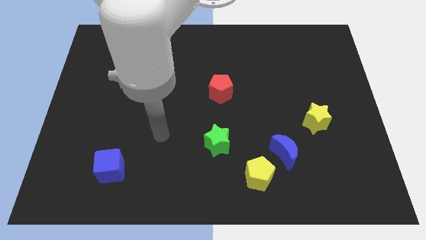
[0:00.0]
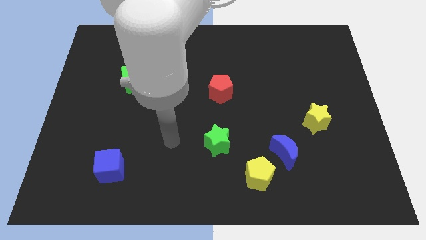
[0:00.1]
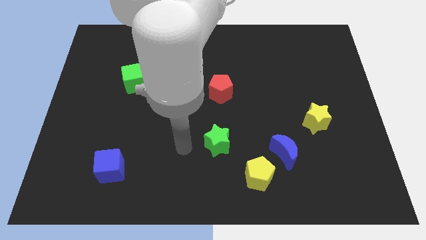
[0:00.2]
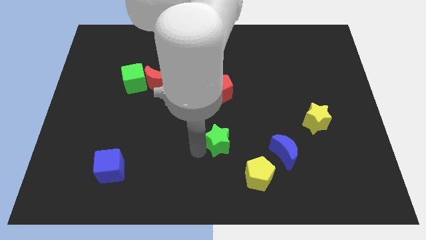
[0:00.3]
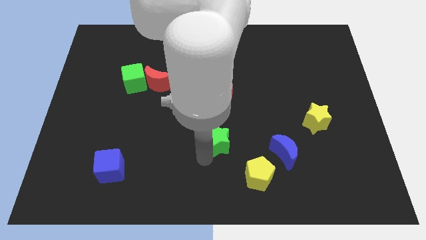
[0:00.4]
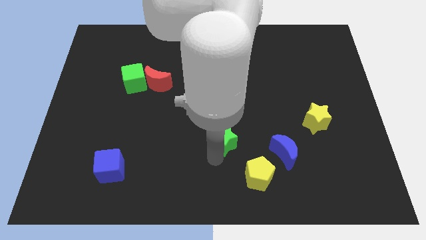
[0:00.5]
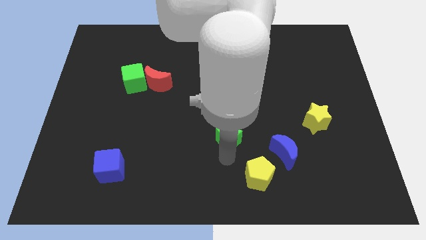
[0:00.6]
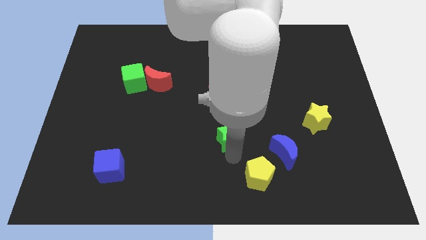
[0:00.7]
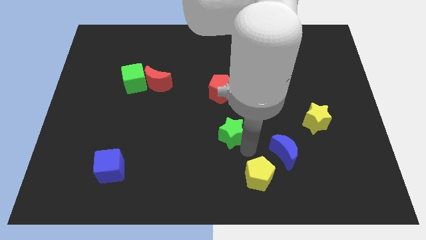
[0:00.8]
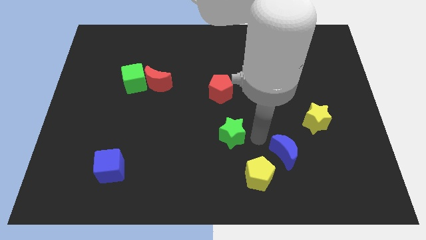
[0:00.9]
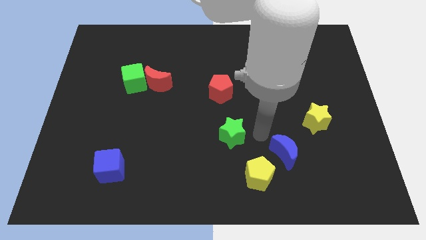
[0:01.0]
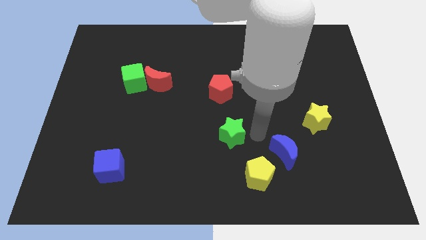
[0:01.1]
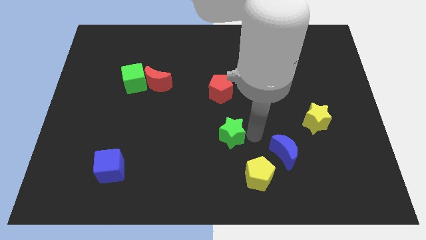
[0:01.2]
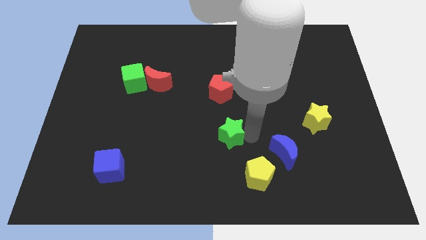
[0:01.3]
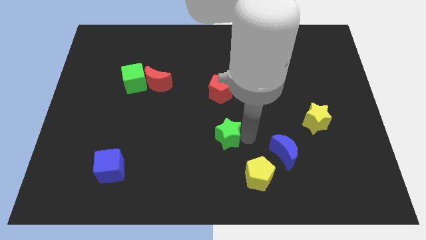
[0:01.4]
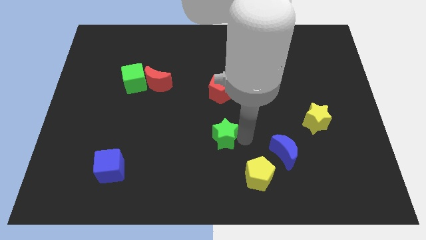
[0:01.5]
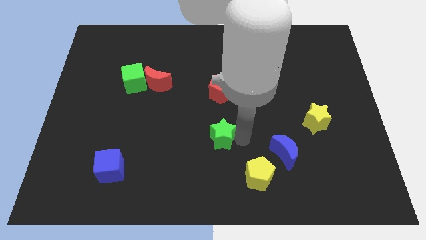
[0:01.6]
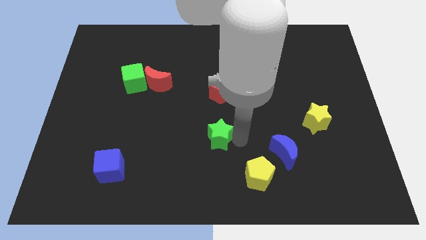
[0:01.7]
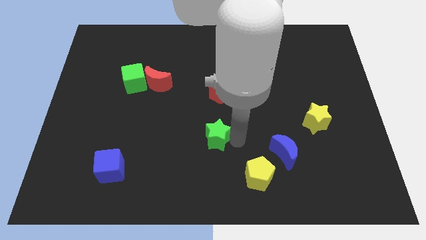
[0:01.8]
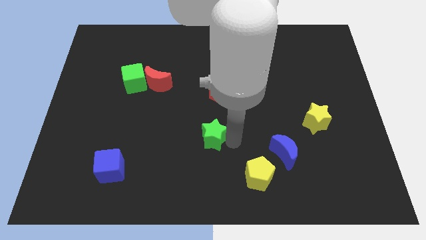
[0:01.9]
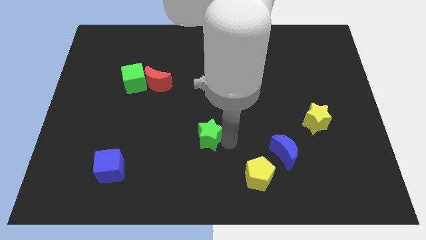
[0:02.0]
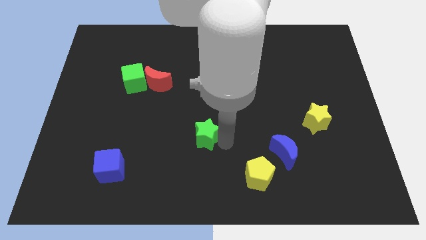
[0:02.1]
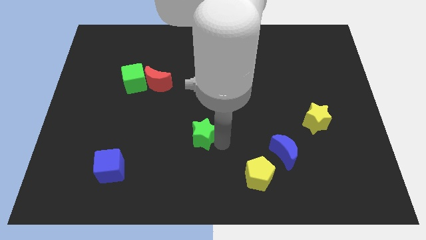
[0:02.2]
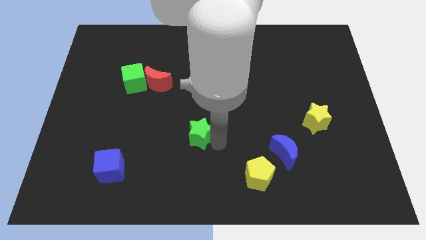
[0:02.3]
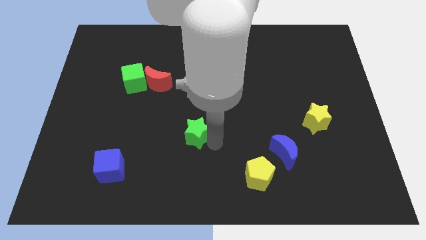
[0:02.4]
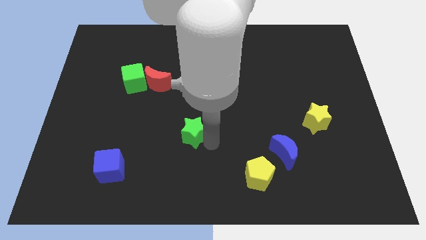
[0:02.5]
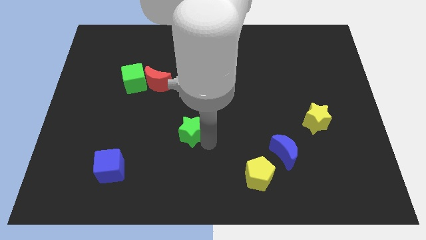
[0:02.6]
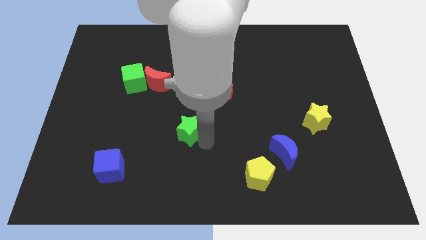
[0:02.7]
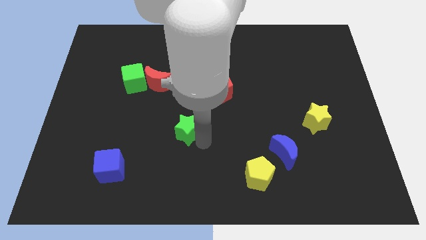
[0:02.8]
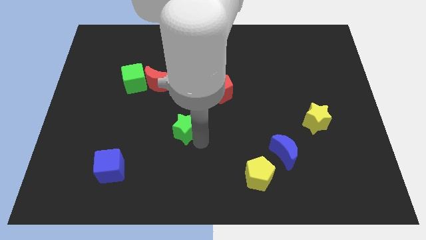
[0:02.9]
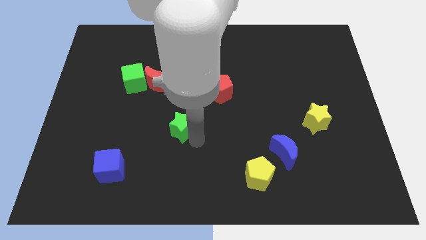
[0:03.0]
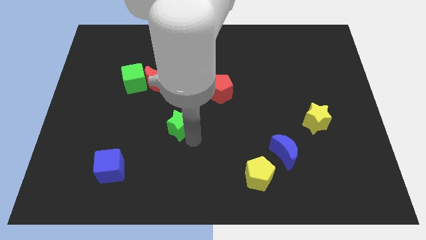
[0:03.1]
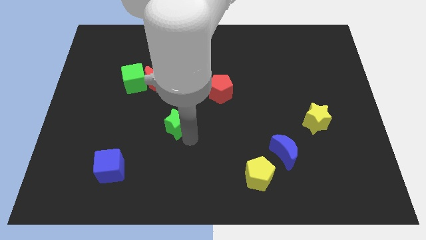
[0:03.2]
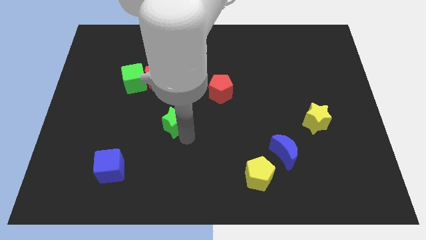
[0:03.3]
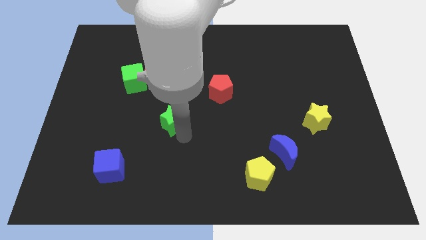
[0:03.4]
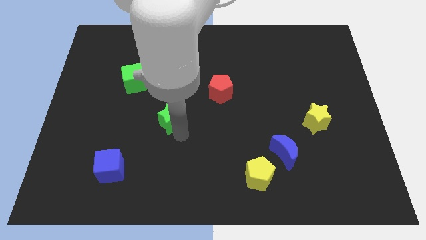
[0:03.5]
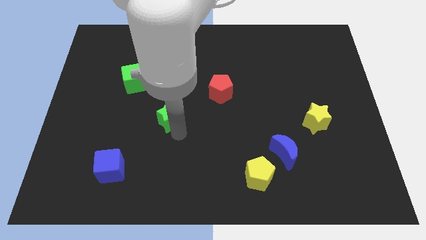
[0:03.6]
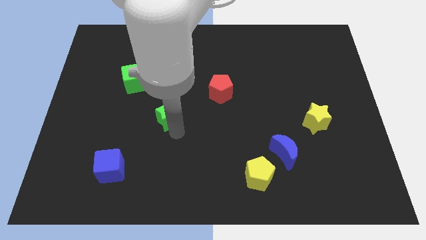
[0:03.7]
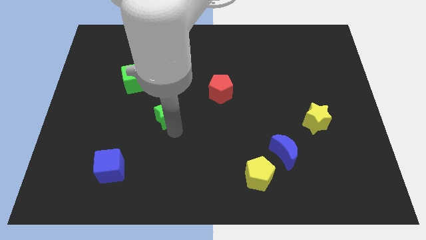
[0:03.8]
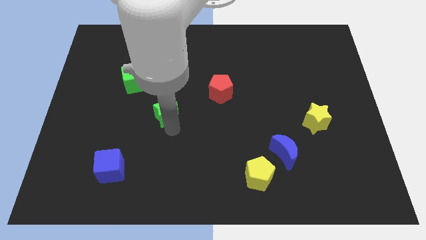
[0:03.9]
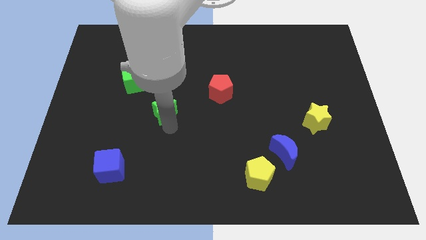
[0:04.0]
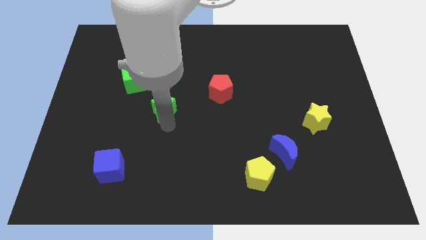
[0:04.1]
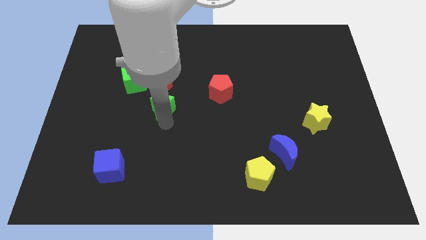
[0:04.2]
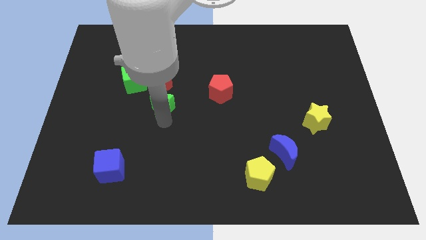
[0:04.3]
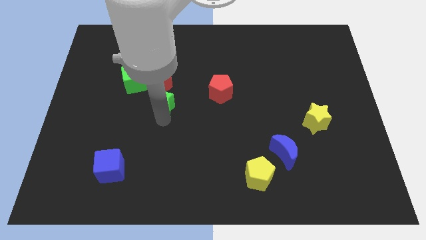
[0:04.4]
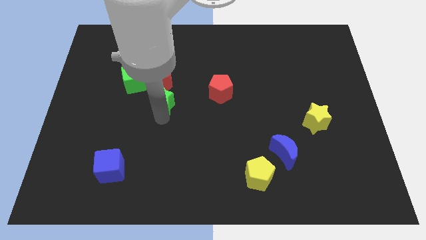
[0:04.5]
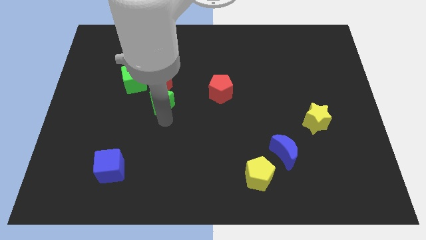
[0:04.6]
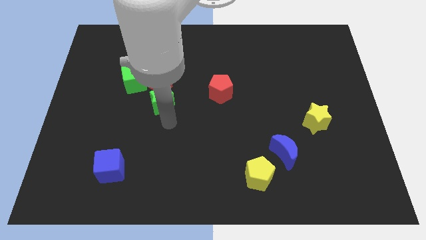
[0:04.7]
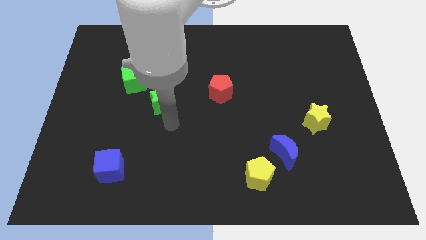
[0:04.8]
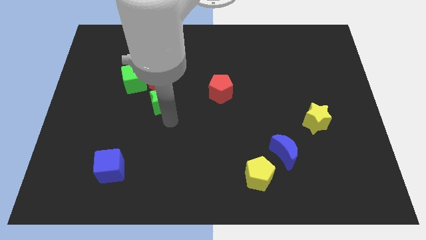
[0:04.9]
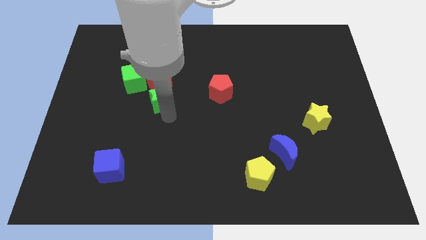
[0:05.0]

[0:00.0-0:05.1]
move the green star close to the red moon

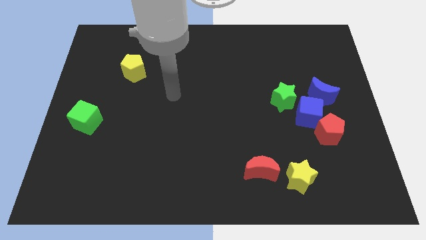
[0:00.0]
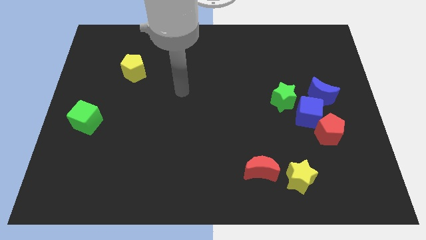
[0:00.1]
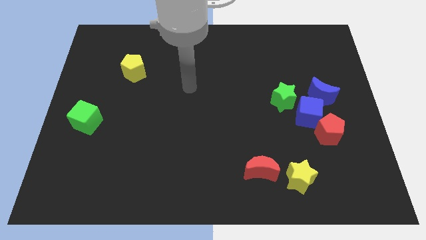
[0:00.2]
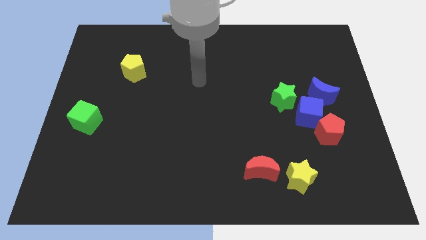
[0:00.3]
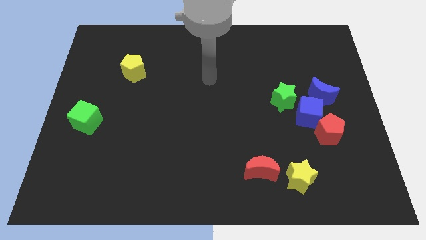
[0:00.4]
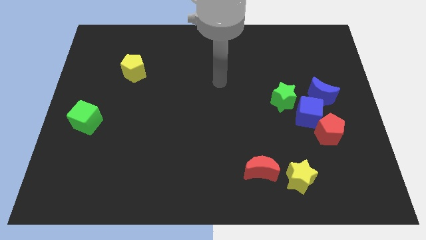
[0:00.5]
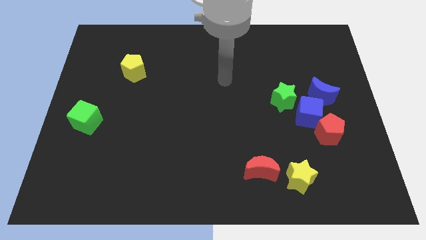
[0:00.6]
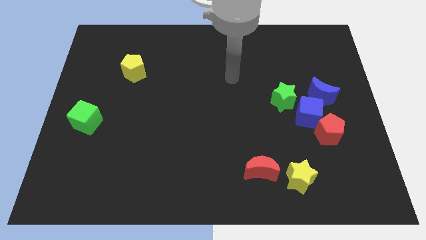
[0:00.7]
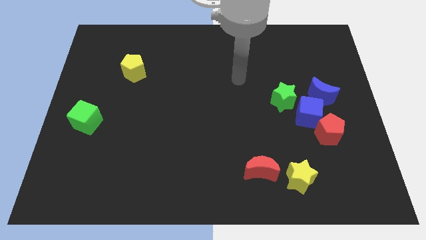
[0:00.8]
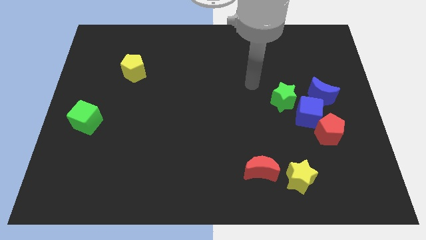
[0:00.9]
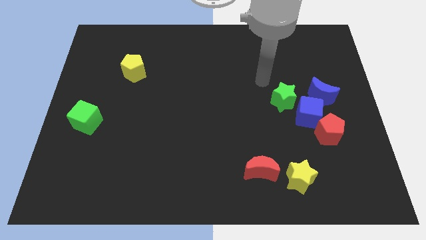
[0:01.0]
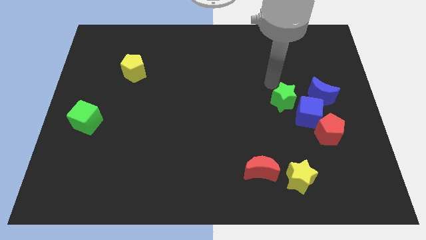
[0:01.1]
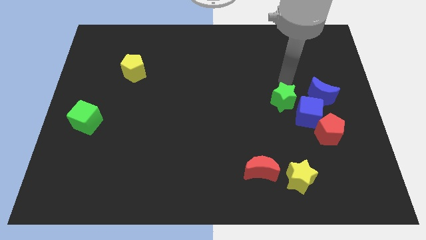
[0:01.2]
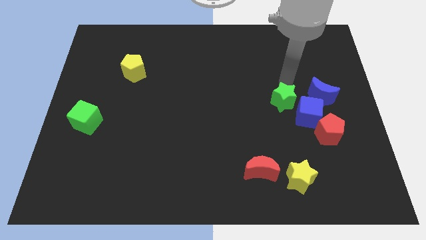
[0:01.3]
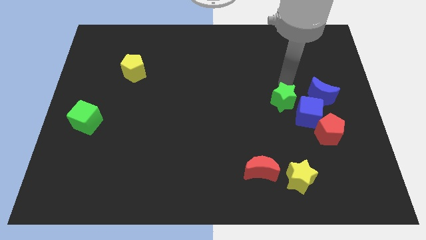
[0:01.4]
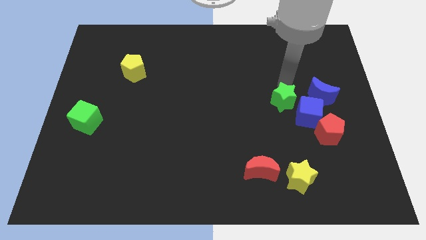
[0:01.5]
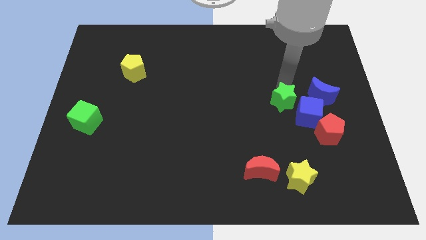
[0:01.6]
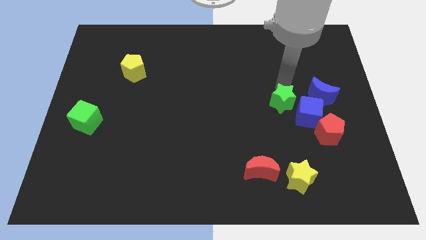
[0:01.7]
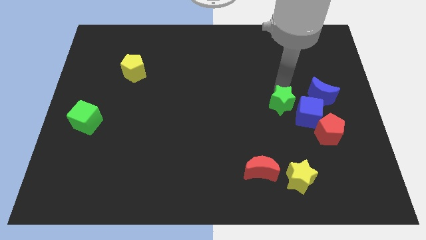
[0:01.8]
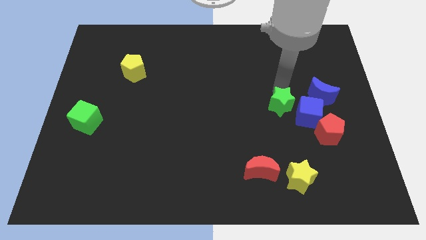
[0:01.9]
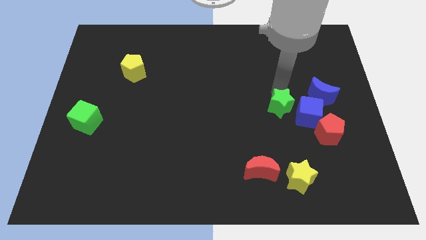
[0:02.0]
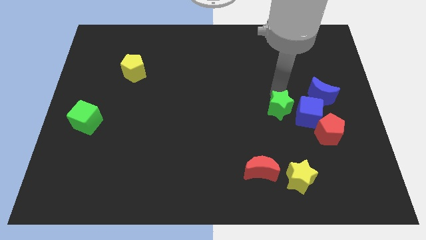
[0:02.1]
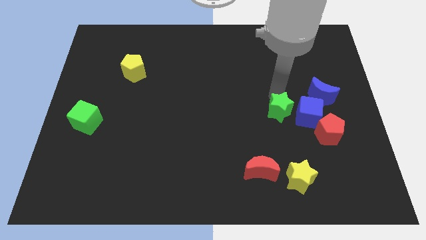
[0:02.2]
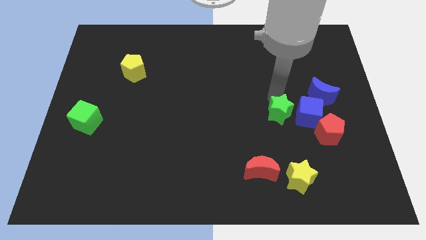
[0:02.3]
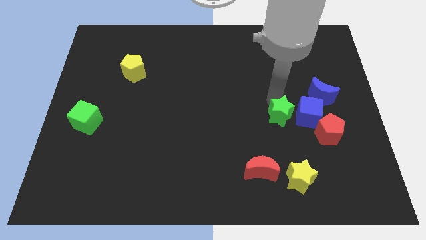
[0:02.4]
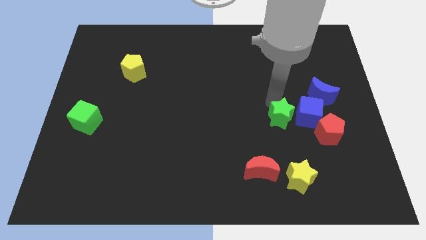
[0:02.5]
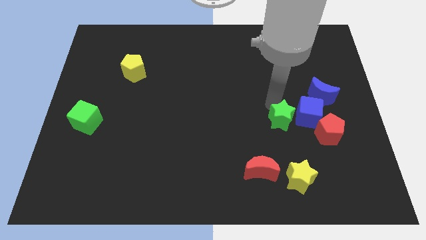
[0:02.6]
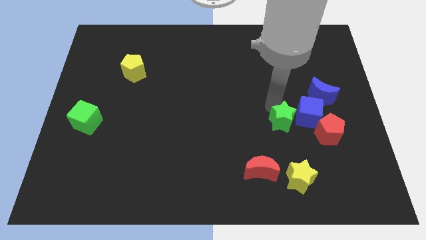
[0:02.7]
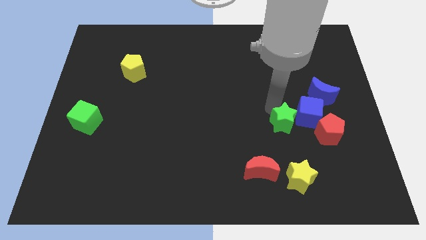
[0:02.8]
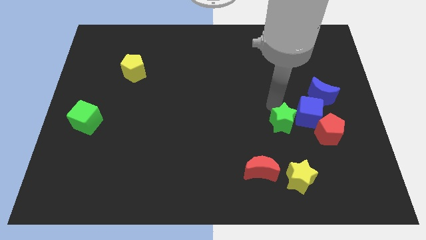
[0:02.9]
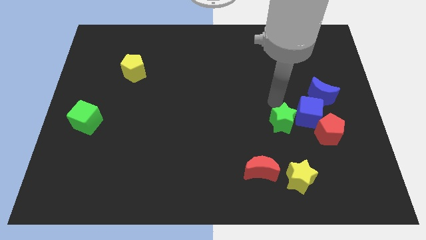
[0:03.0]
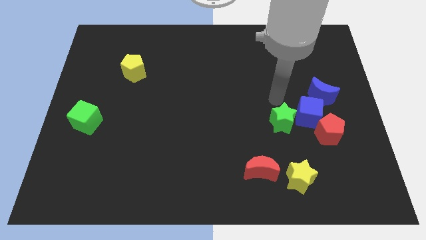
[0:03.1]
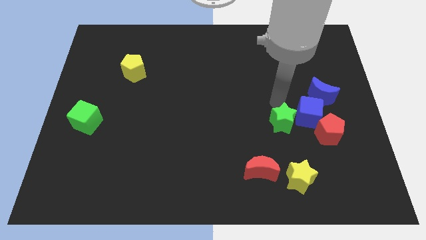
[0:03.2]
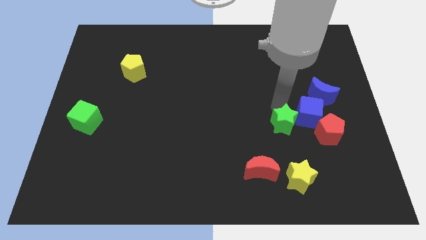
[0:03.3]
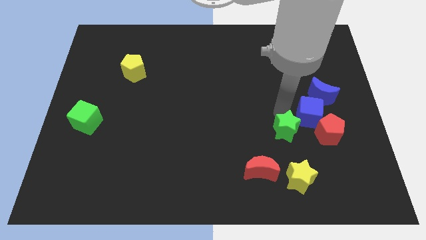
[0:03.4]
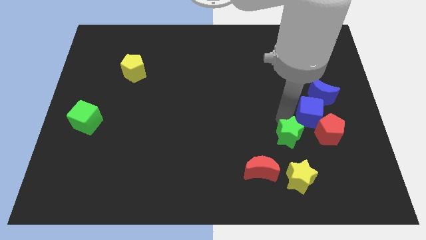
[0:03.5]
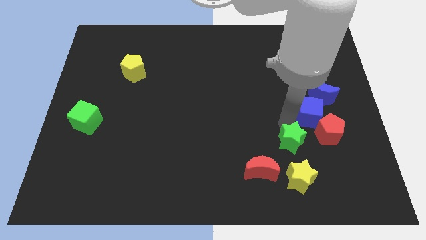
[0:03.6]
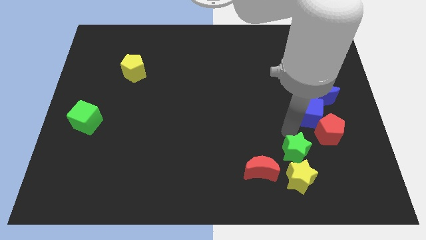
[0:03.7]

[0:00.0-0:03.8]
push the green star close to the yellow star
